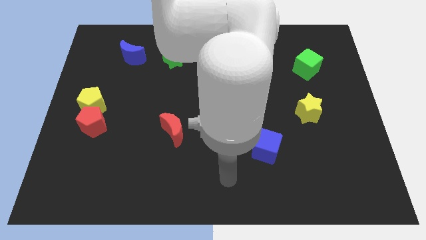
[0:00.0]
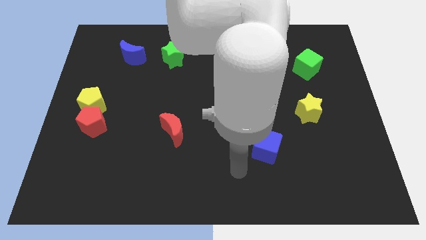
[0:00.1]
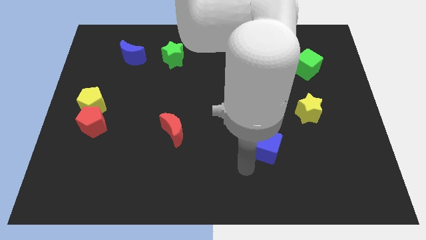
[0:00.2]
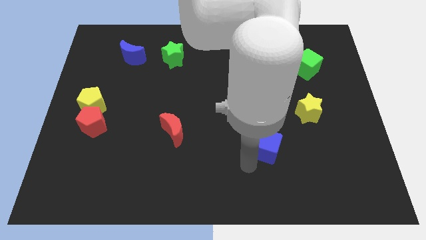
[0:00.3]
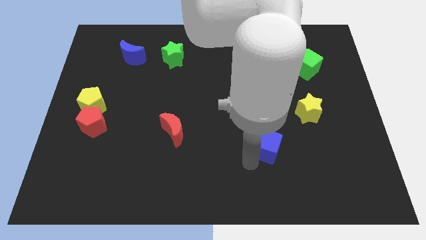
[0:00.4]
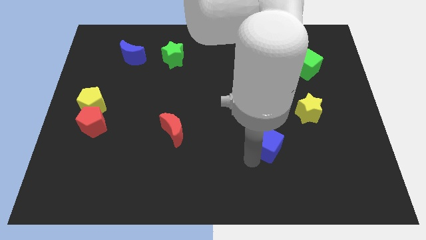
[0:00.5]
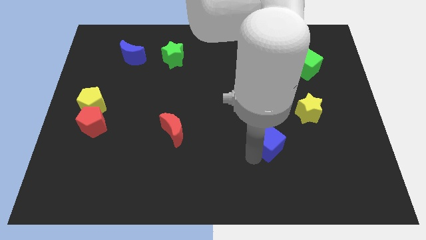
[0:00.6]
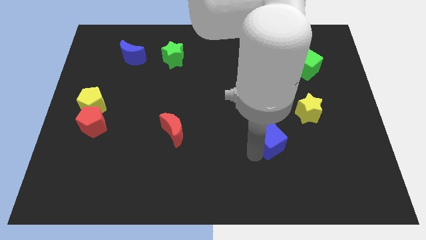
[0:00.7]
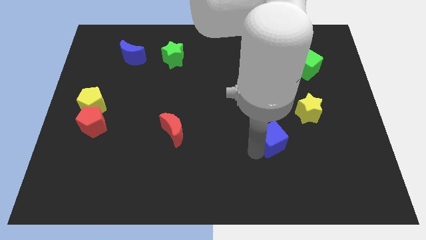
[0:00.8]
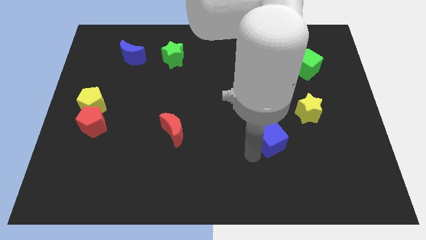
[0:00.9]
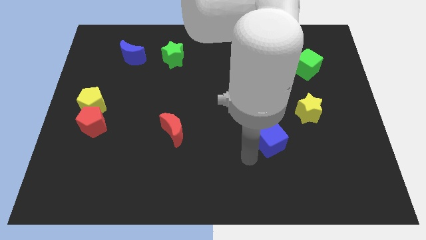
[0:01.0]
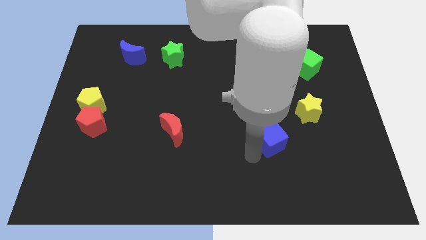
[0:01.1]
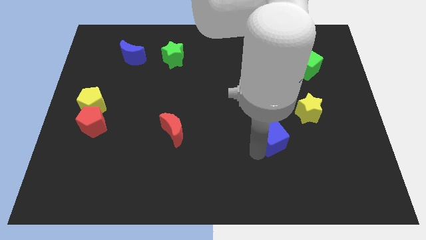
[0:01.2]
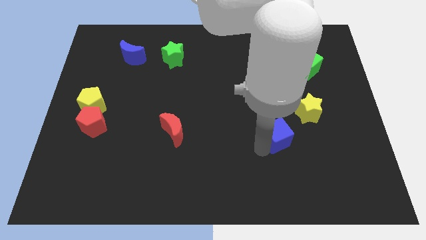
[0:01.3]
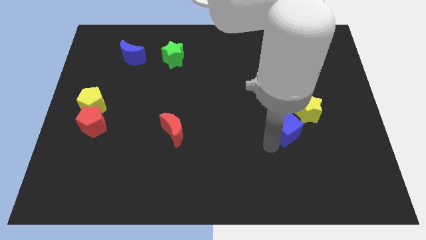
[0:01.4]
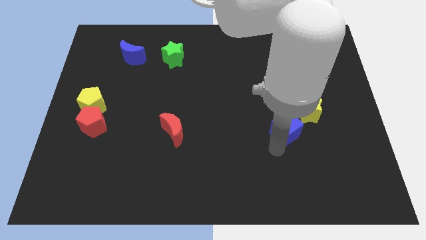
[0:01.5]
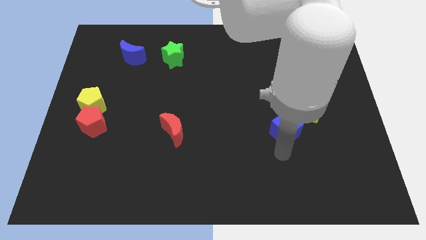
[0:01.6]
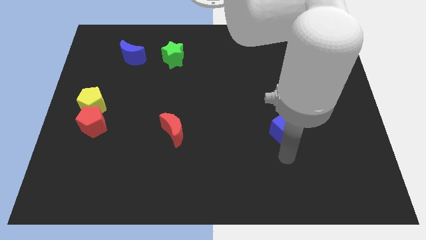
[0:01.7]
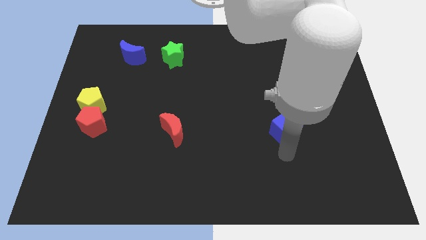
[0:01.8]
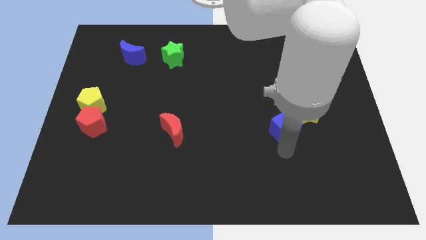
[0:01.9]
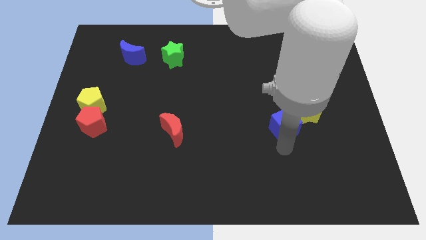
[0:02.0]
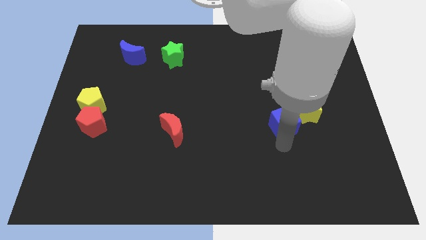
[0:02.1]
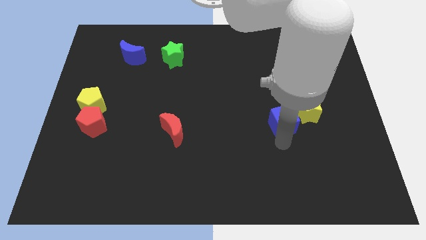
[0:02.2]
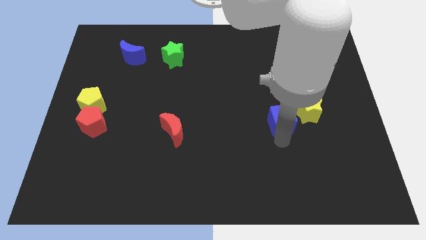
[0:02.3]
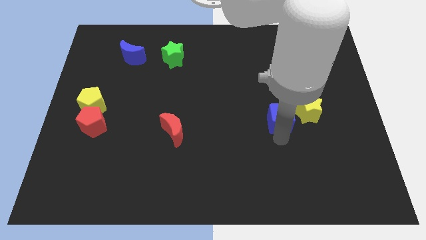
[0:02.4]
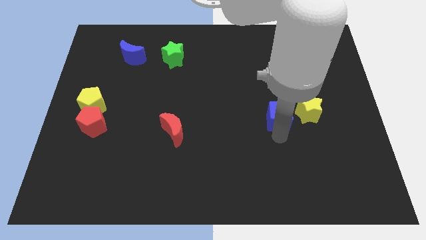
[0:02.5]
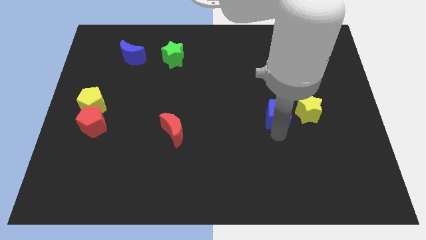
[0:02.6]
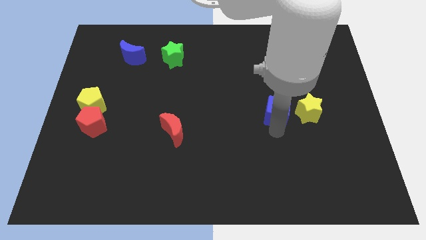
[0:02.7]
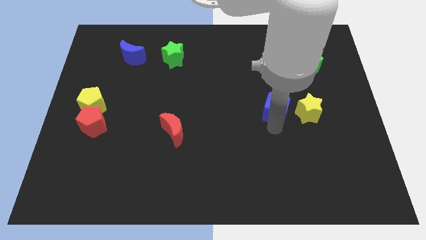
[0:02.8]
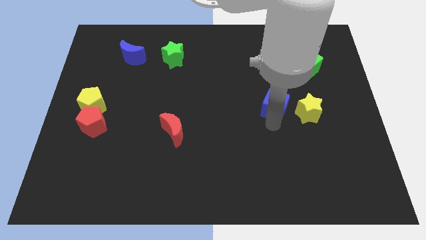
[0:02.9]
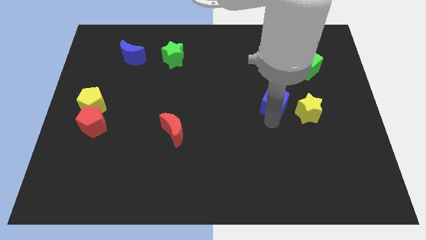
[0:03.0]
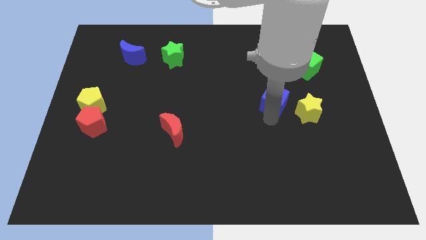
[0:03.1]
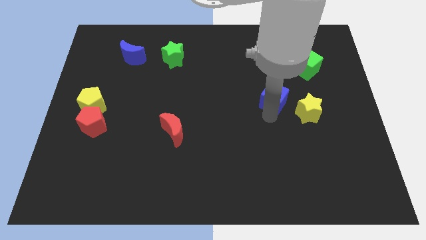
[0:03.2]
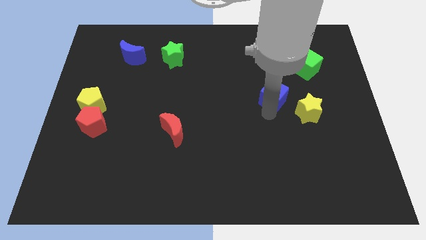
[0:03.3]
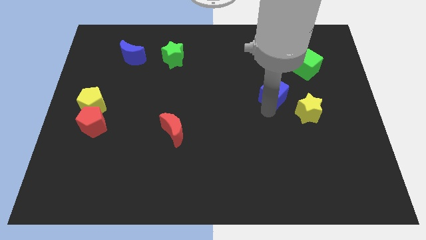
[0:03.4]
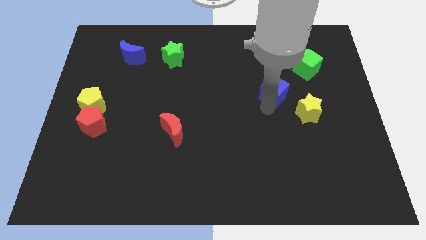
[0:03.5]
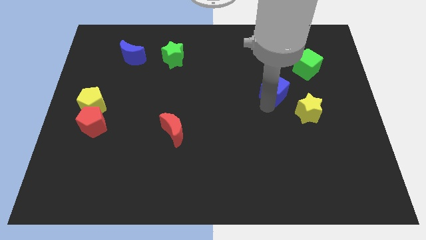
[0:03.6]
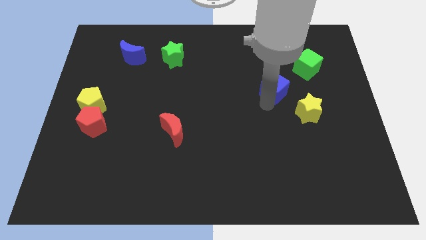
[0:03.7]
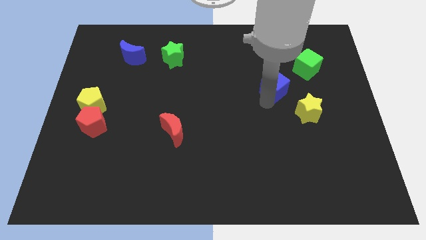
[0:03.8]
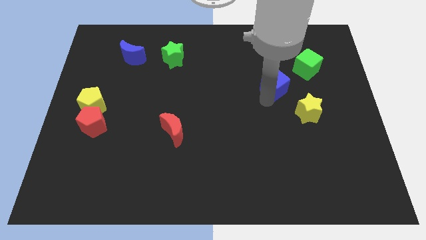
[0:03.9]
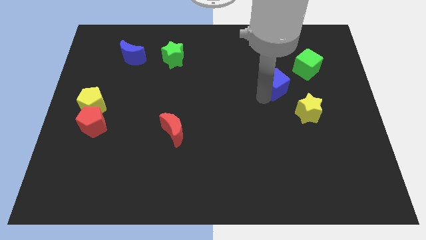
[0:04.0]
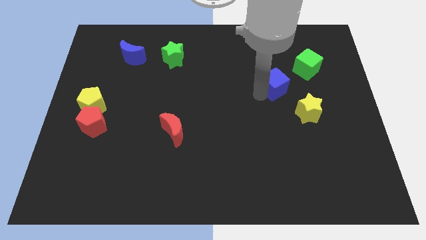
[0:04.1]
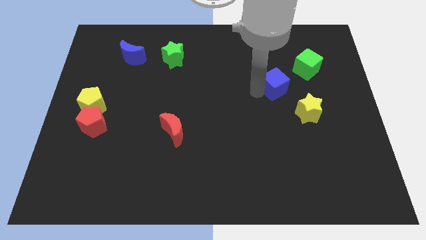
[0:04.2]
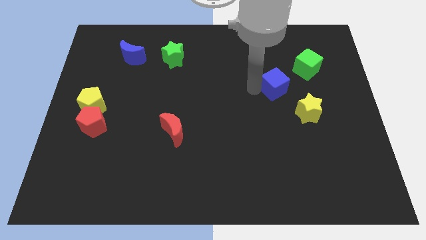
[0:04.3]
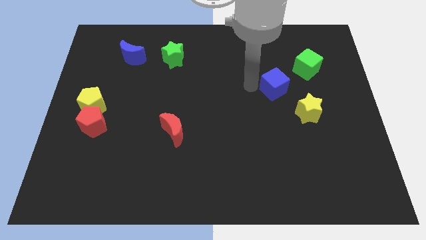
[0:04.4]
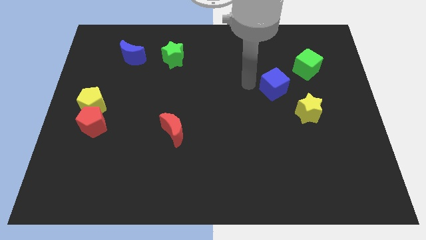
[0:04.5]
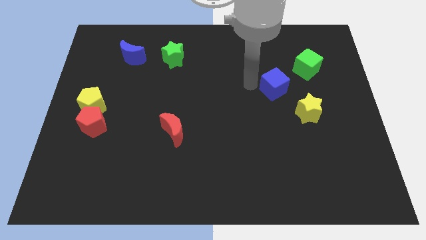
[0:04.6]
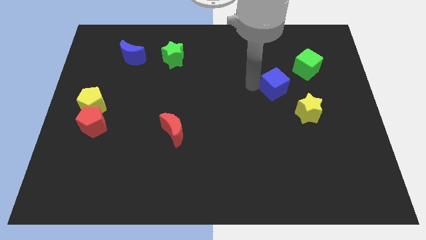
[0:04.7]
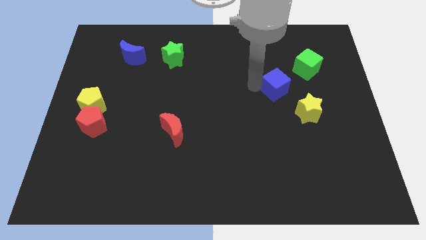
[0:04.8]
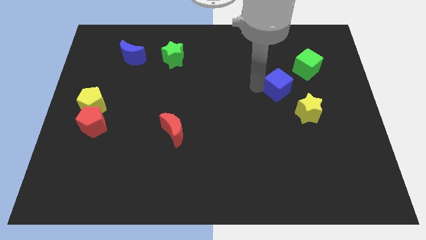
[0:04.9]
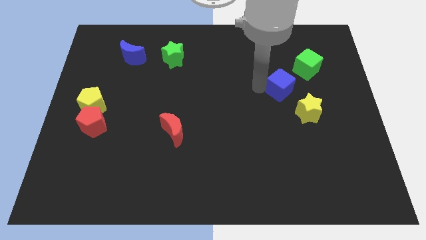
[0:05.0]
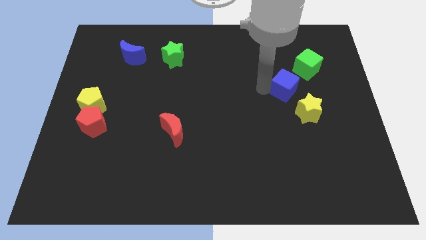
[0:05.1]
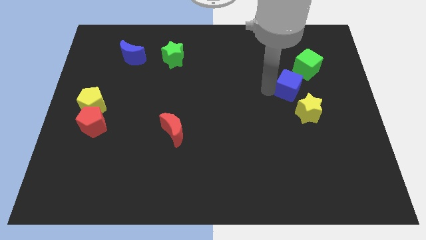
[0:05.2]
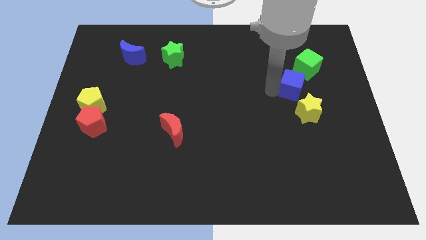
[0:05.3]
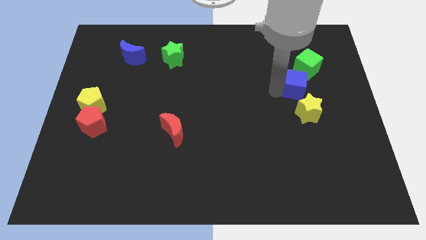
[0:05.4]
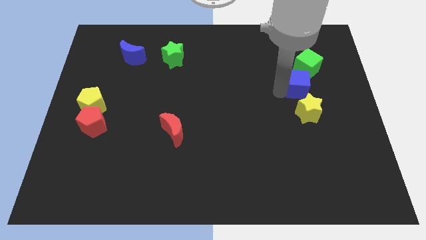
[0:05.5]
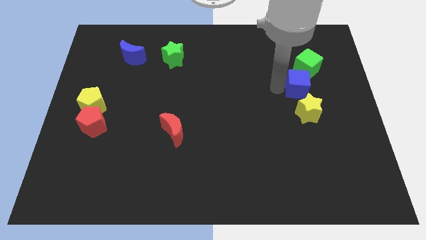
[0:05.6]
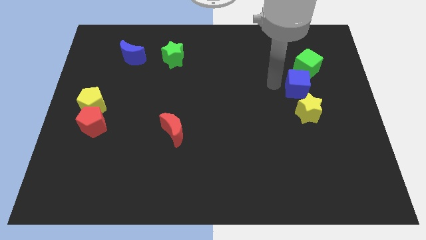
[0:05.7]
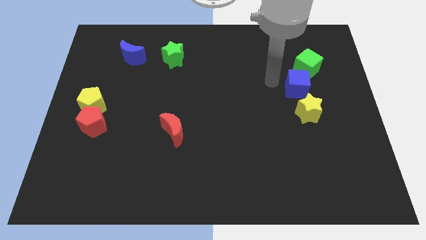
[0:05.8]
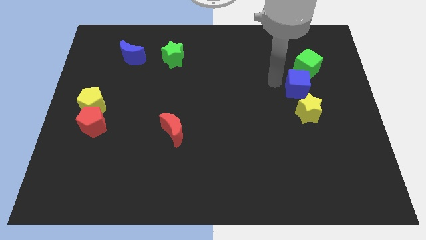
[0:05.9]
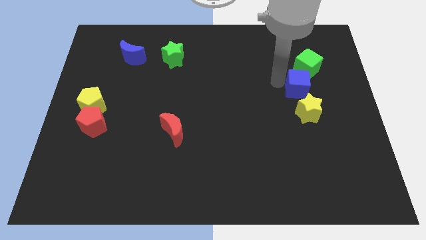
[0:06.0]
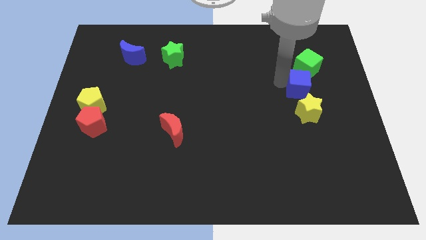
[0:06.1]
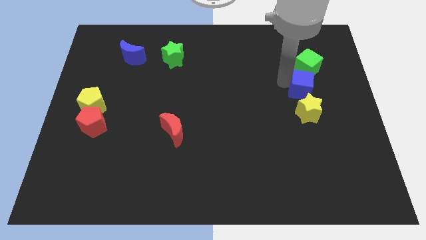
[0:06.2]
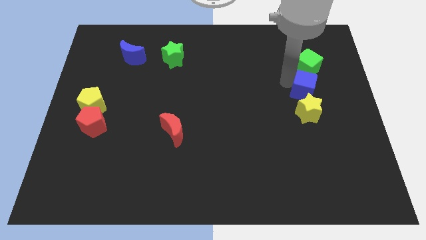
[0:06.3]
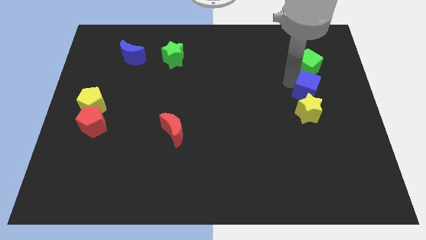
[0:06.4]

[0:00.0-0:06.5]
move the blue cube to the top right of the yellow star

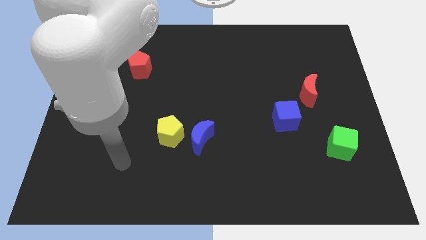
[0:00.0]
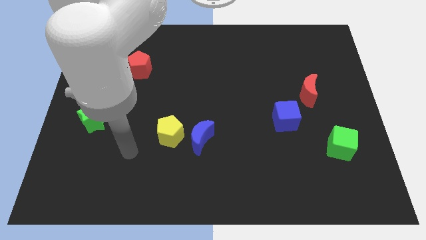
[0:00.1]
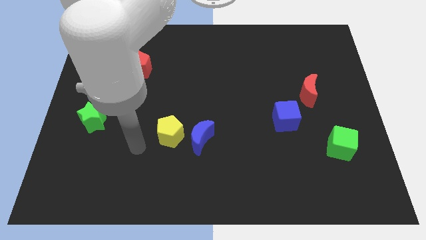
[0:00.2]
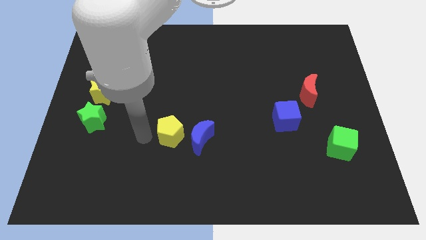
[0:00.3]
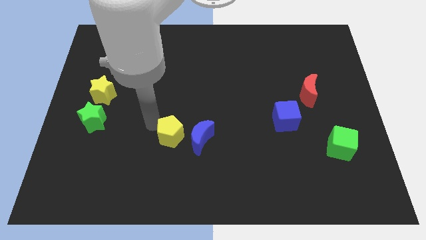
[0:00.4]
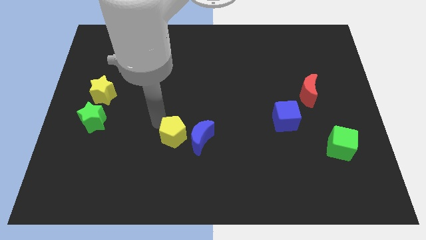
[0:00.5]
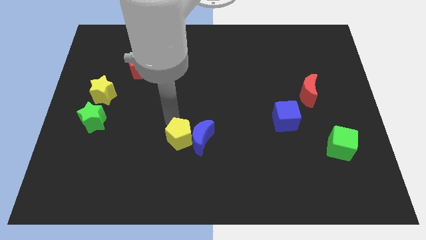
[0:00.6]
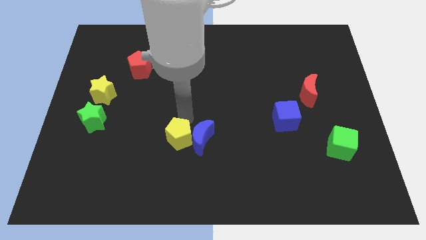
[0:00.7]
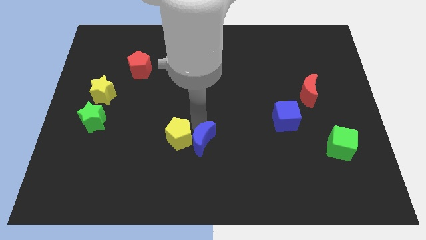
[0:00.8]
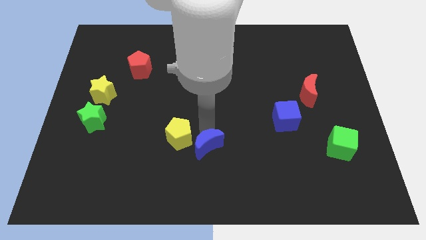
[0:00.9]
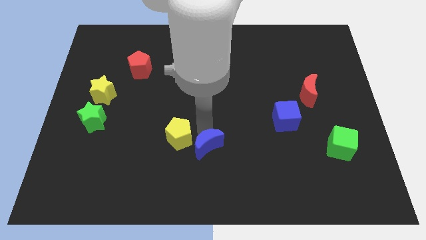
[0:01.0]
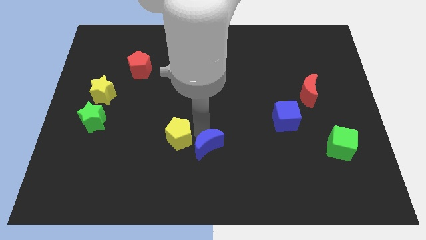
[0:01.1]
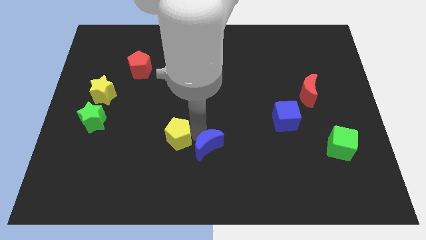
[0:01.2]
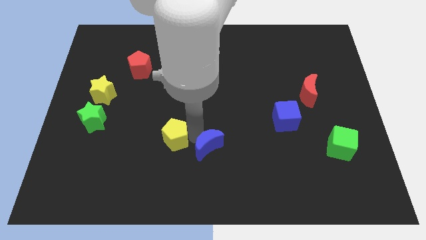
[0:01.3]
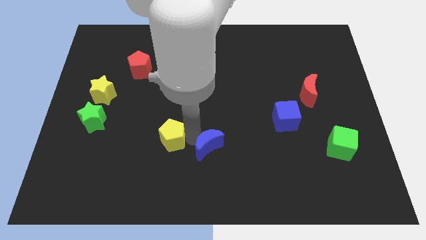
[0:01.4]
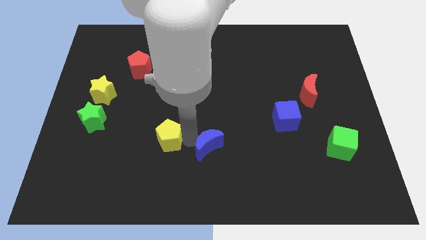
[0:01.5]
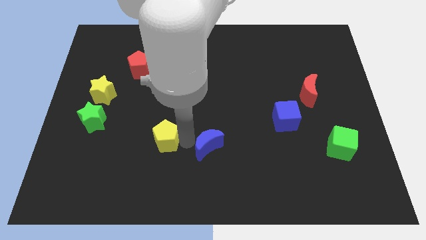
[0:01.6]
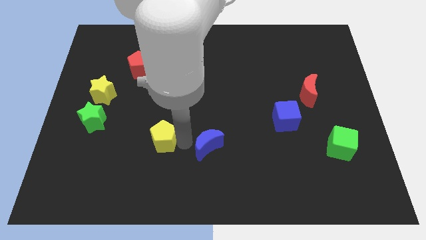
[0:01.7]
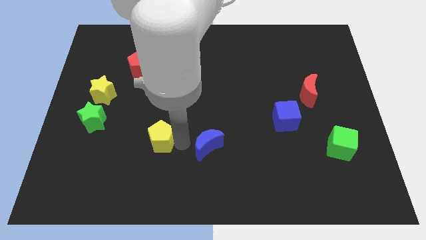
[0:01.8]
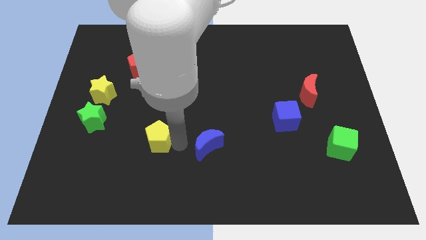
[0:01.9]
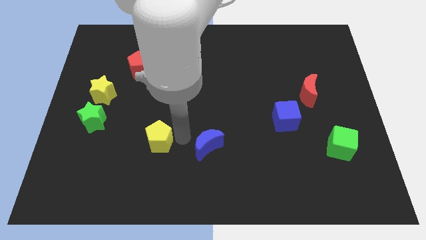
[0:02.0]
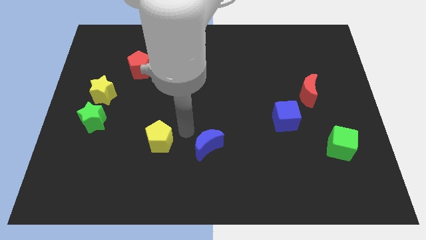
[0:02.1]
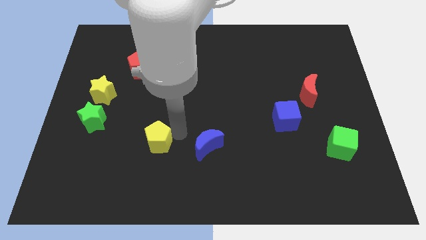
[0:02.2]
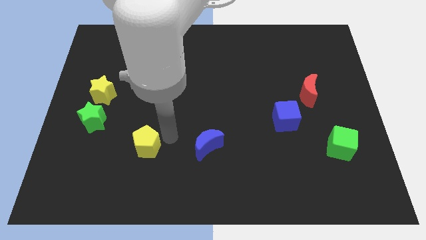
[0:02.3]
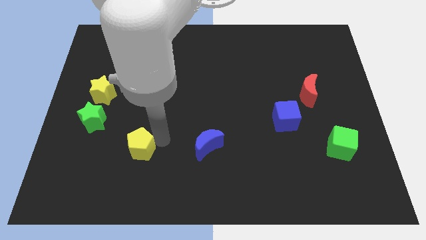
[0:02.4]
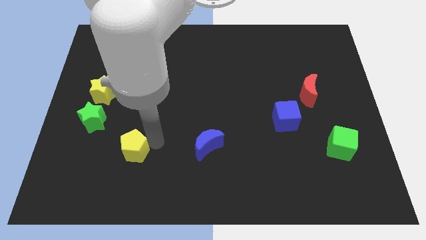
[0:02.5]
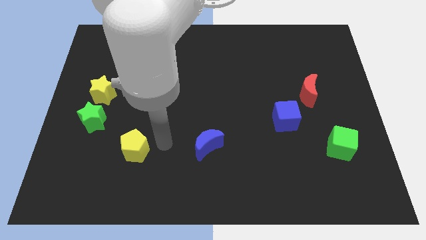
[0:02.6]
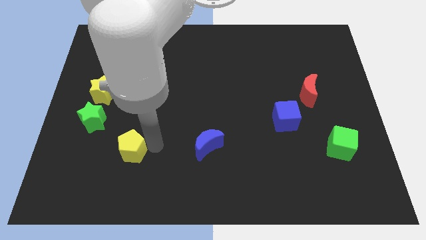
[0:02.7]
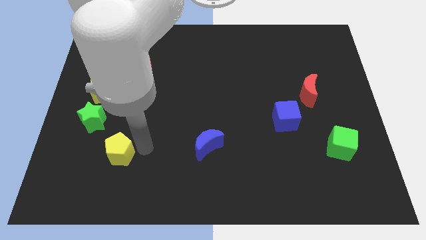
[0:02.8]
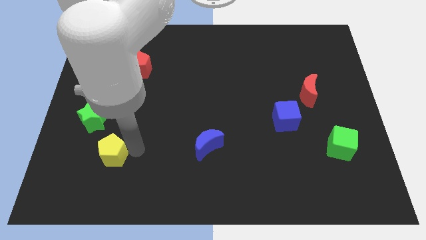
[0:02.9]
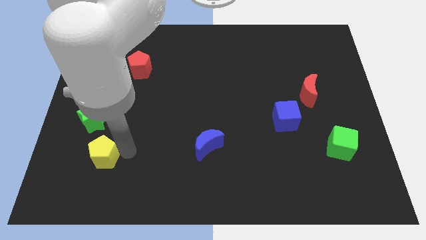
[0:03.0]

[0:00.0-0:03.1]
move the yellow pentagon to the bottom of the green star
